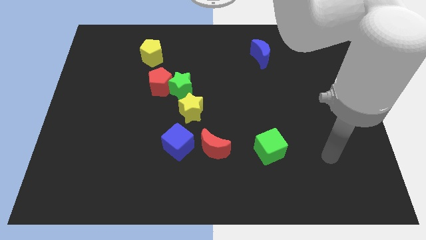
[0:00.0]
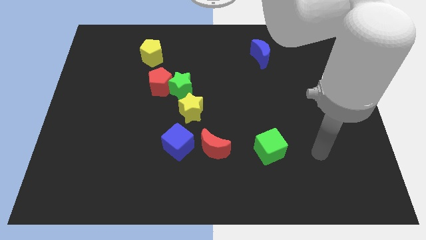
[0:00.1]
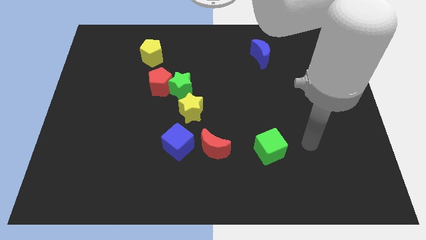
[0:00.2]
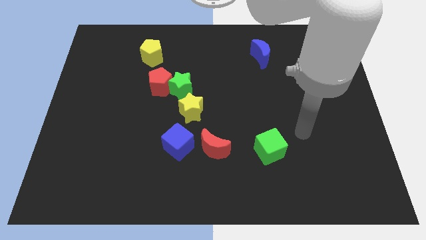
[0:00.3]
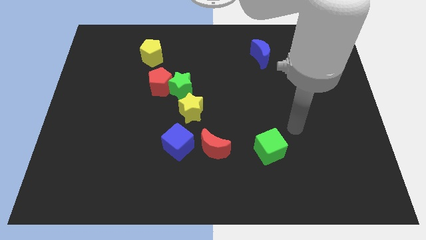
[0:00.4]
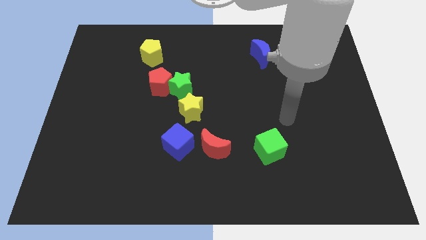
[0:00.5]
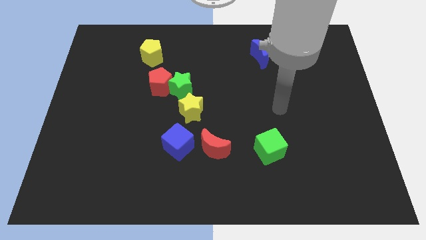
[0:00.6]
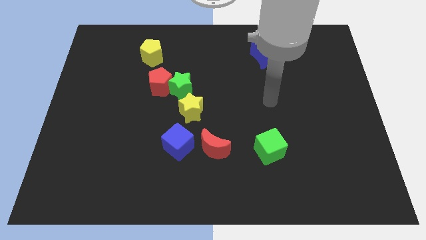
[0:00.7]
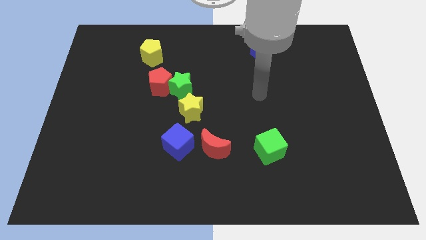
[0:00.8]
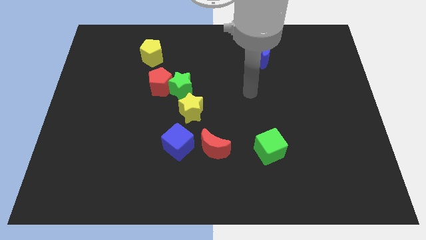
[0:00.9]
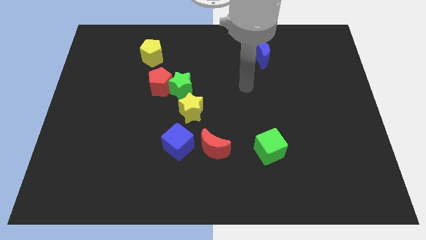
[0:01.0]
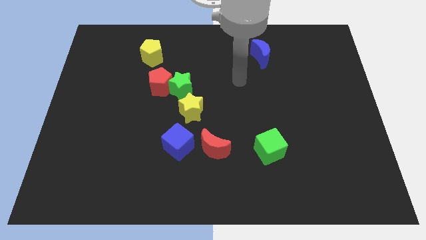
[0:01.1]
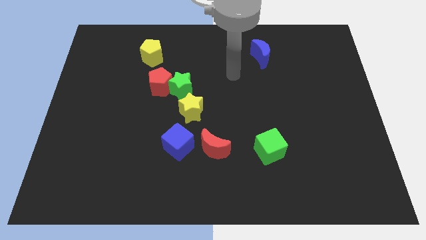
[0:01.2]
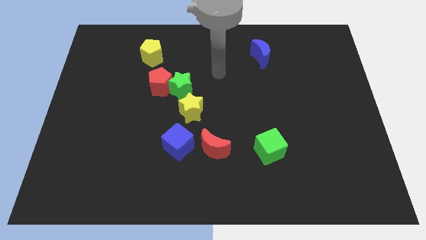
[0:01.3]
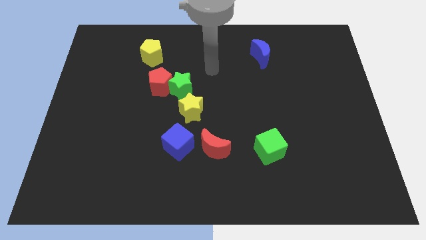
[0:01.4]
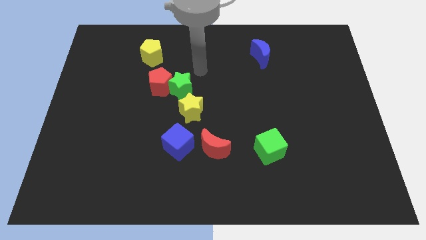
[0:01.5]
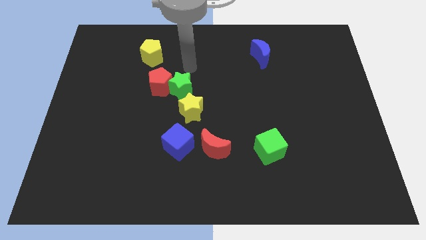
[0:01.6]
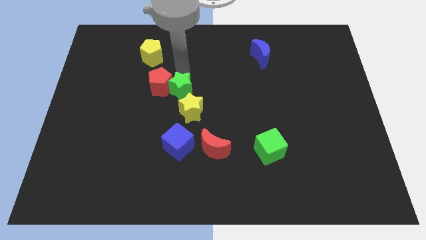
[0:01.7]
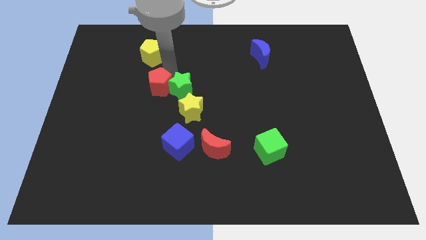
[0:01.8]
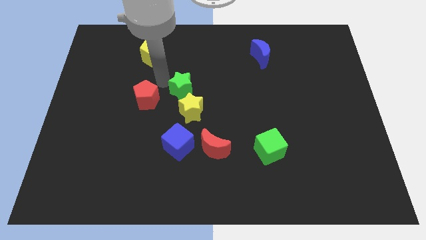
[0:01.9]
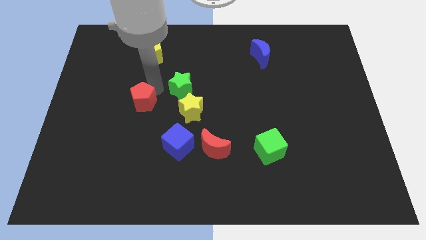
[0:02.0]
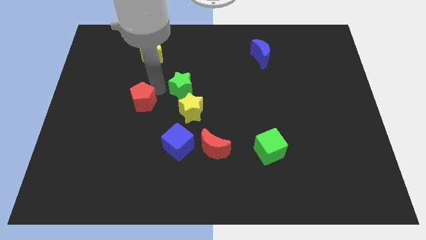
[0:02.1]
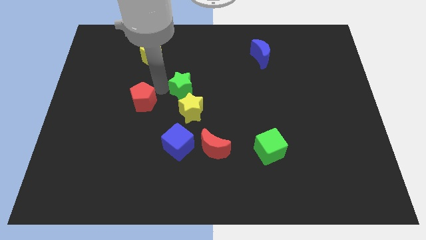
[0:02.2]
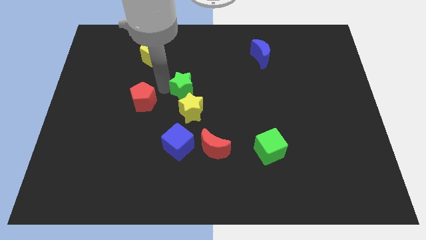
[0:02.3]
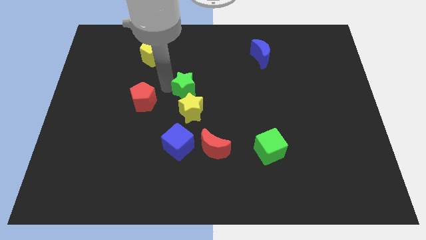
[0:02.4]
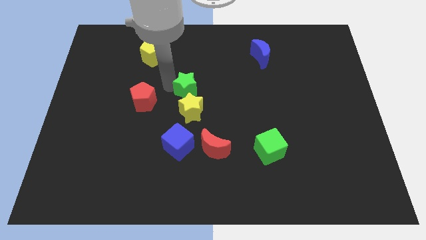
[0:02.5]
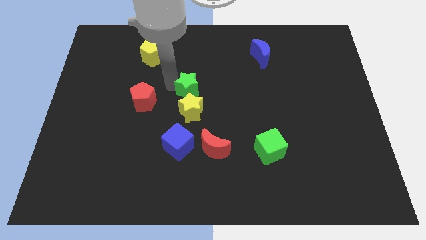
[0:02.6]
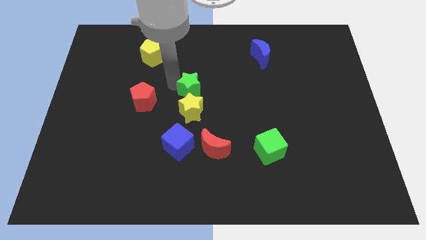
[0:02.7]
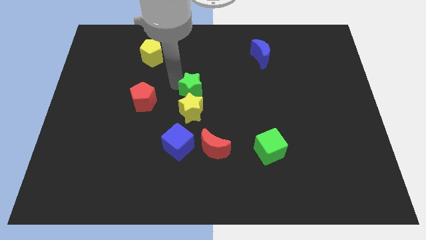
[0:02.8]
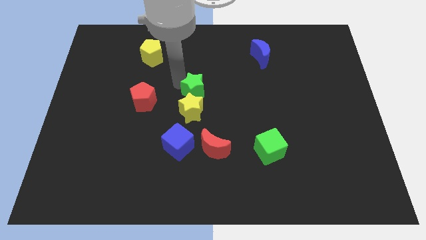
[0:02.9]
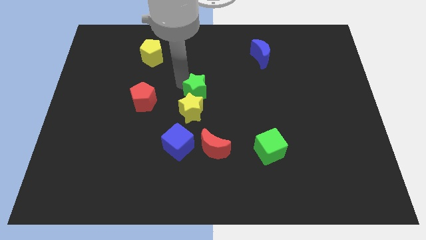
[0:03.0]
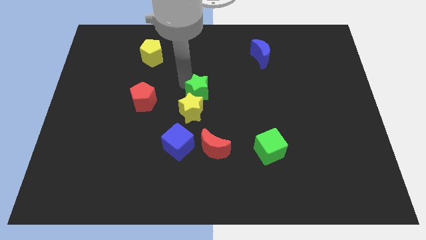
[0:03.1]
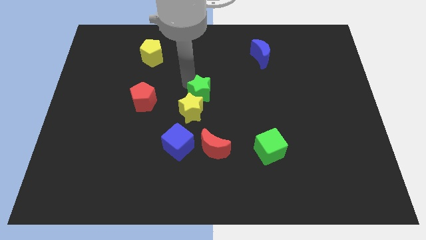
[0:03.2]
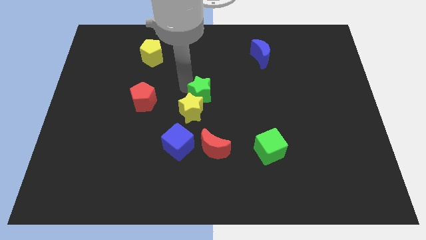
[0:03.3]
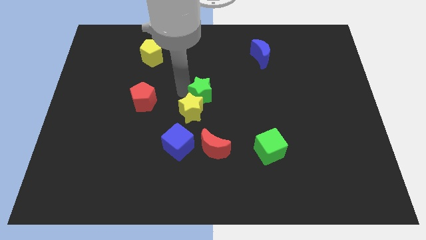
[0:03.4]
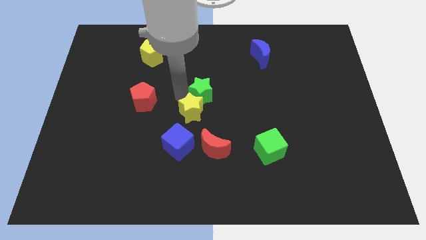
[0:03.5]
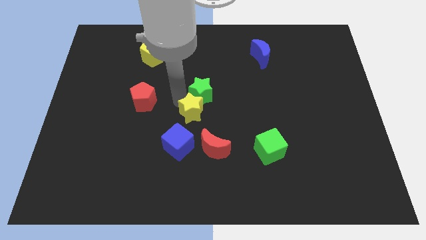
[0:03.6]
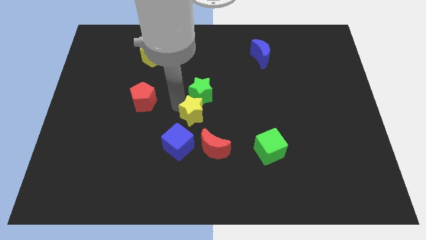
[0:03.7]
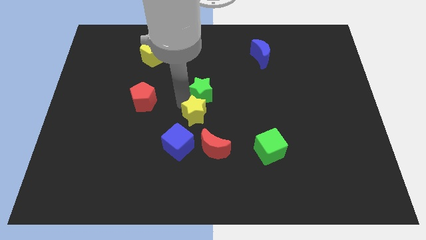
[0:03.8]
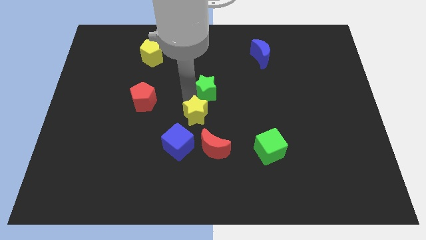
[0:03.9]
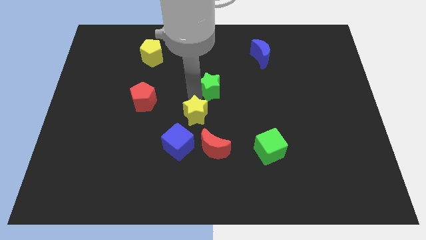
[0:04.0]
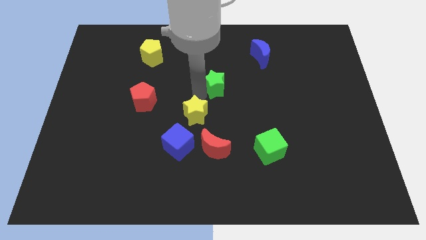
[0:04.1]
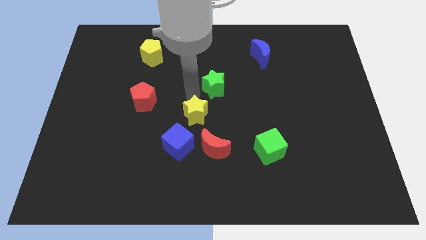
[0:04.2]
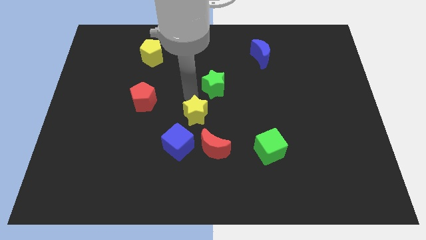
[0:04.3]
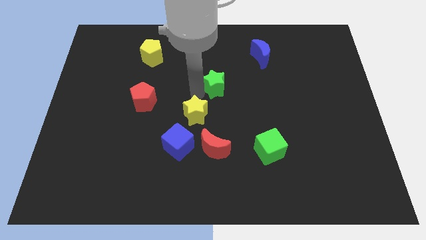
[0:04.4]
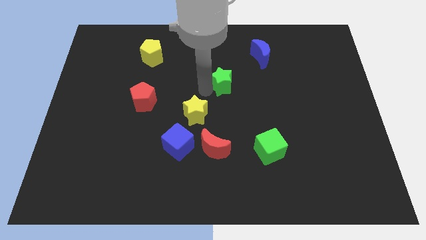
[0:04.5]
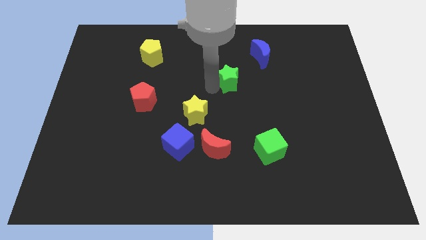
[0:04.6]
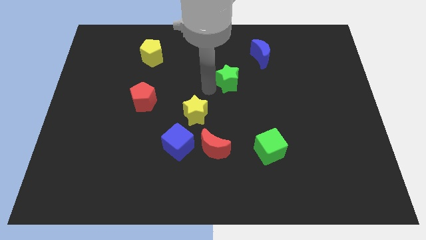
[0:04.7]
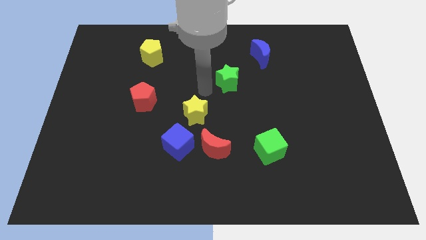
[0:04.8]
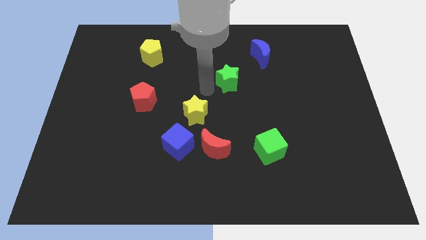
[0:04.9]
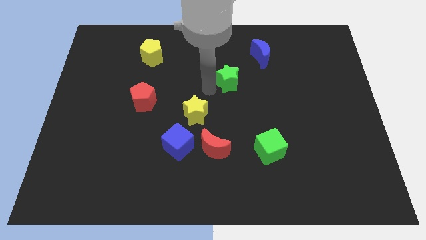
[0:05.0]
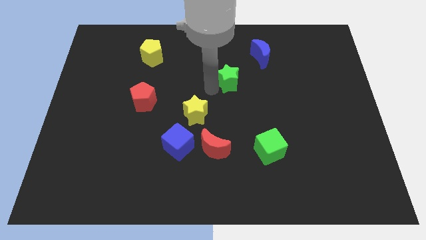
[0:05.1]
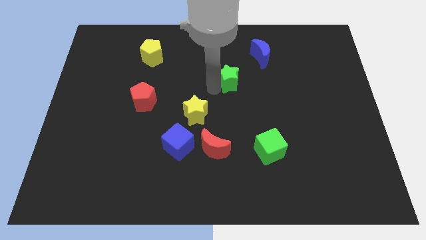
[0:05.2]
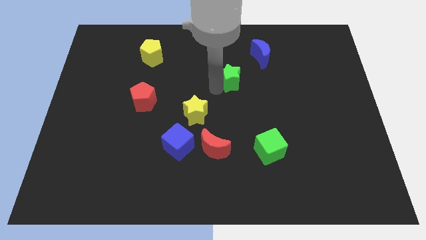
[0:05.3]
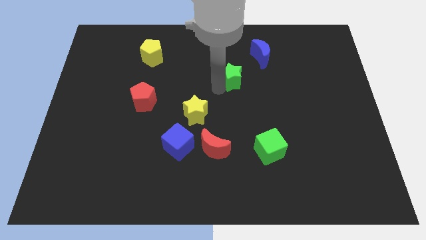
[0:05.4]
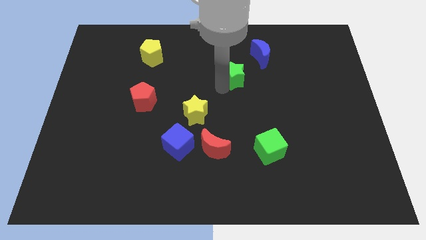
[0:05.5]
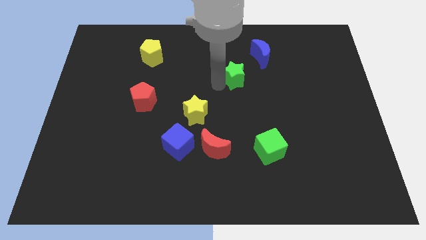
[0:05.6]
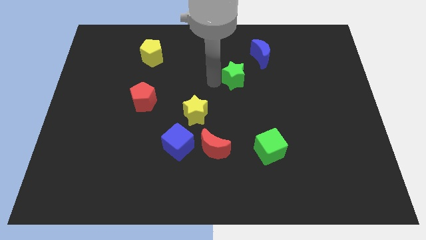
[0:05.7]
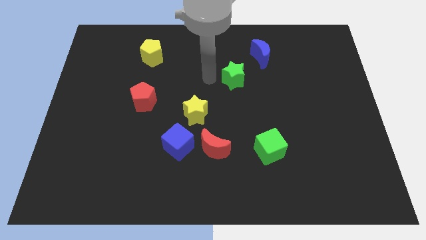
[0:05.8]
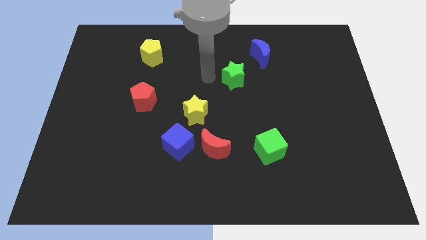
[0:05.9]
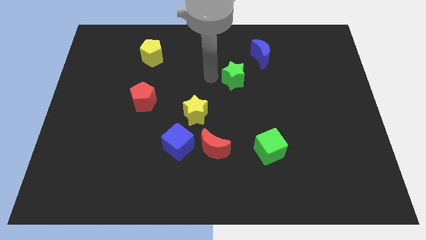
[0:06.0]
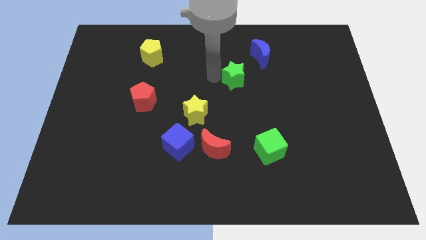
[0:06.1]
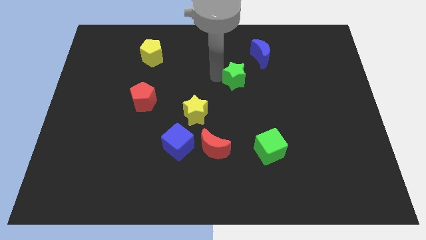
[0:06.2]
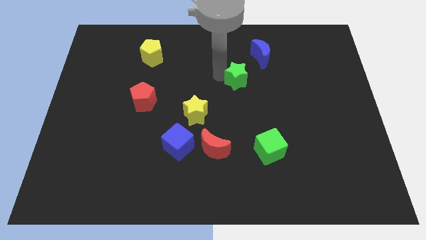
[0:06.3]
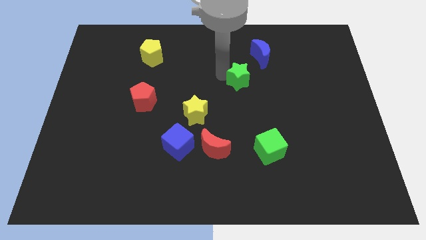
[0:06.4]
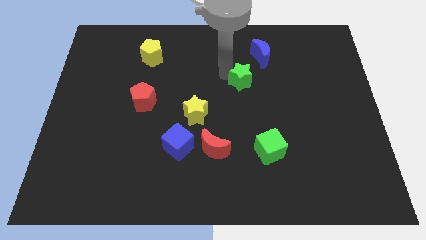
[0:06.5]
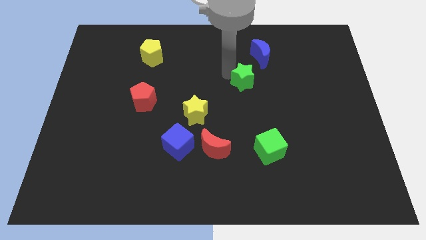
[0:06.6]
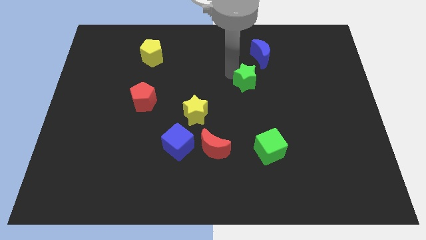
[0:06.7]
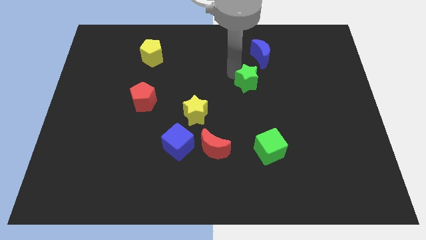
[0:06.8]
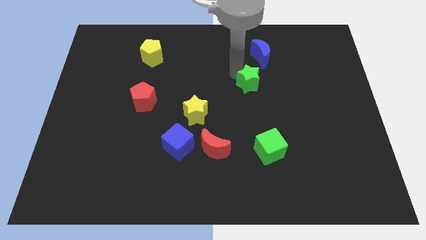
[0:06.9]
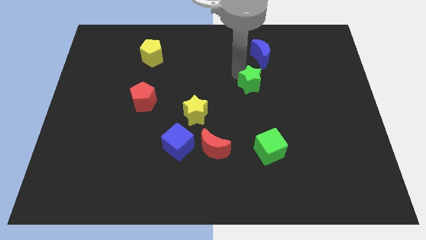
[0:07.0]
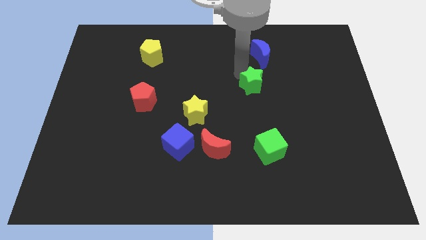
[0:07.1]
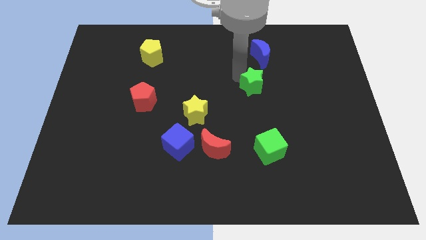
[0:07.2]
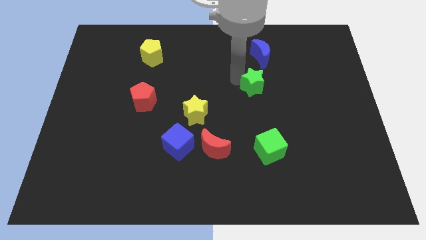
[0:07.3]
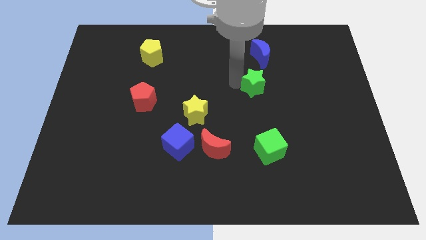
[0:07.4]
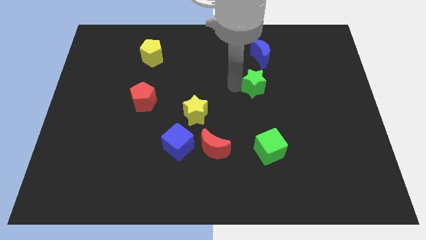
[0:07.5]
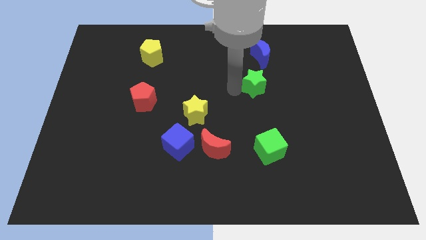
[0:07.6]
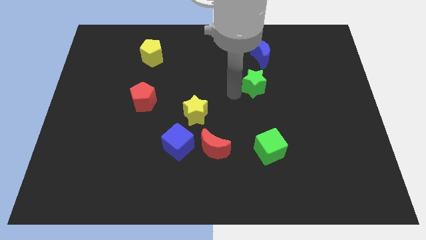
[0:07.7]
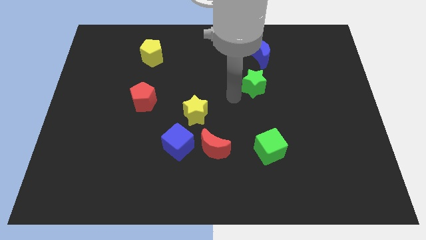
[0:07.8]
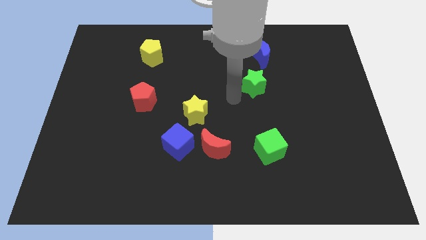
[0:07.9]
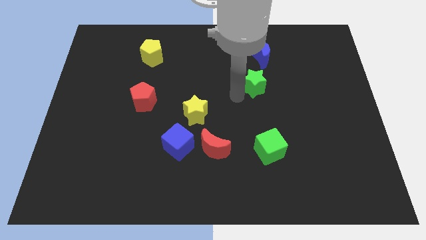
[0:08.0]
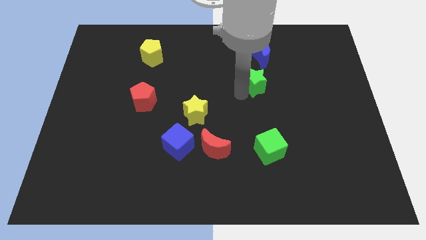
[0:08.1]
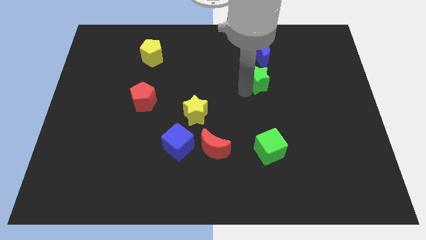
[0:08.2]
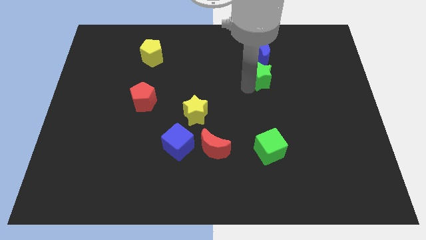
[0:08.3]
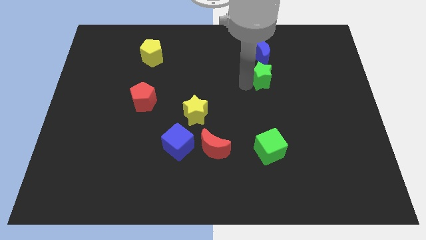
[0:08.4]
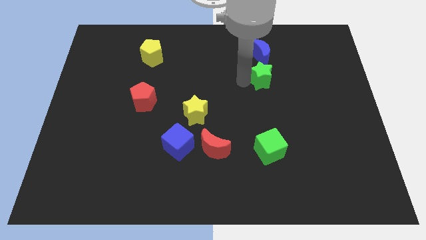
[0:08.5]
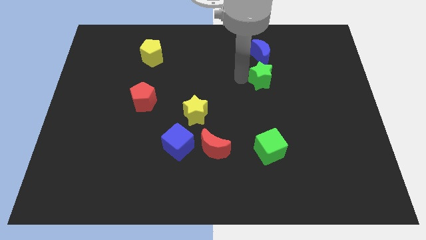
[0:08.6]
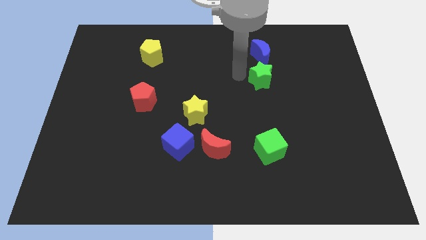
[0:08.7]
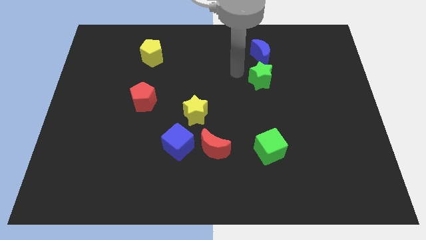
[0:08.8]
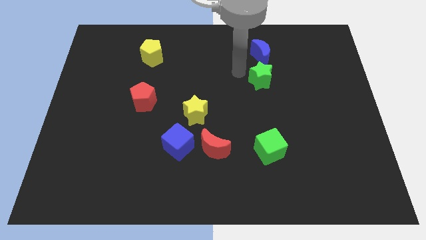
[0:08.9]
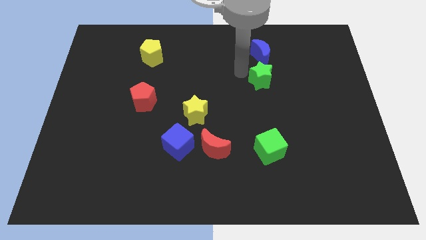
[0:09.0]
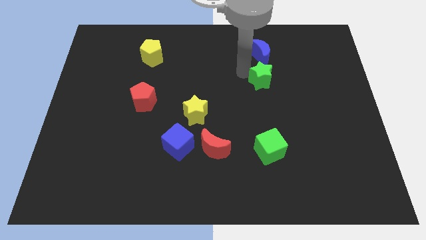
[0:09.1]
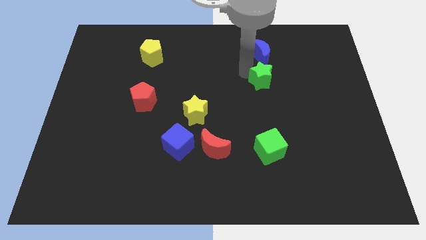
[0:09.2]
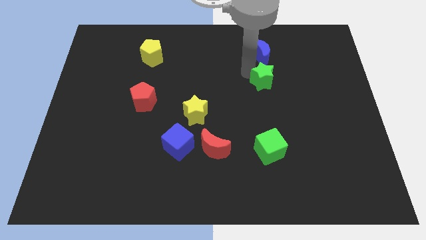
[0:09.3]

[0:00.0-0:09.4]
slide the green star right
